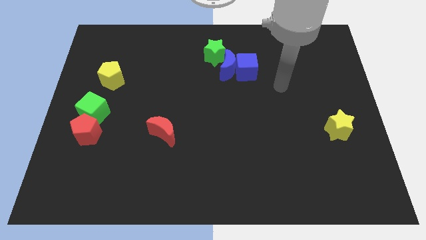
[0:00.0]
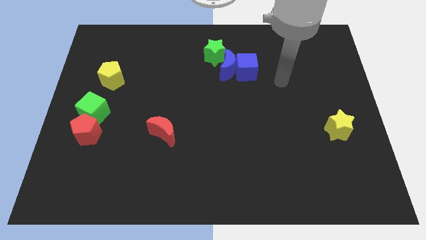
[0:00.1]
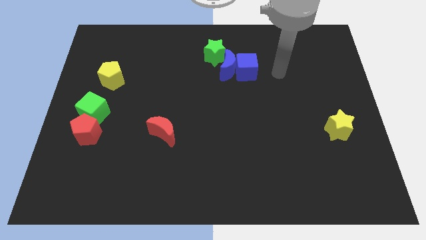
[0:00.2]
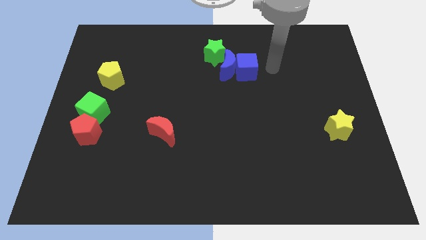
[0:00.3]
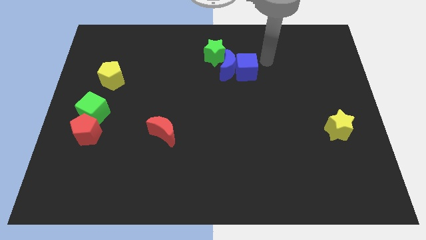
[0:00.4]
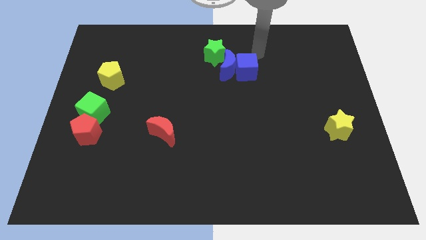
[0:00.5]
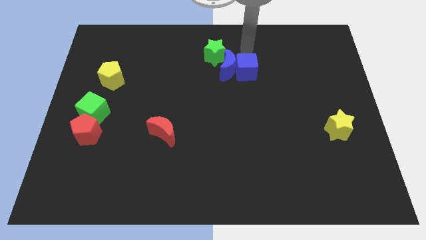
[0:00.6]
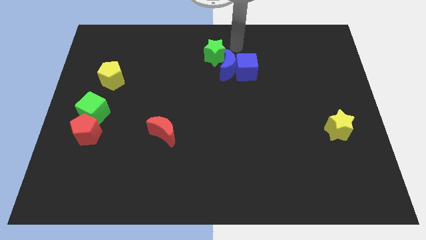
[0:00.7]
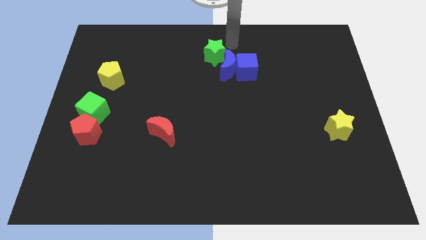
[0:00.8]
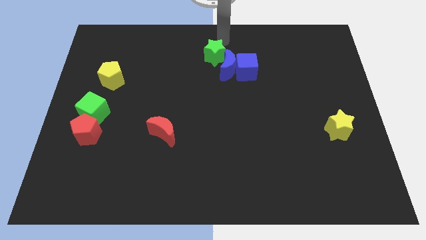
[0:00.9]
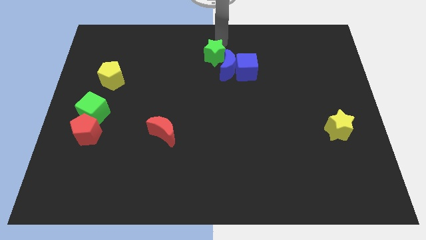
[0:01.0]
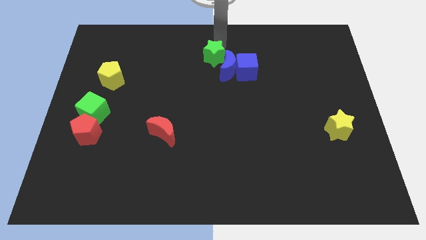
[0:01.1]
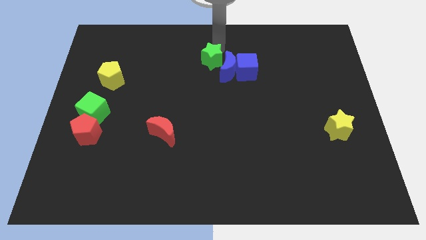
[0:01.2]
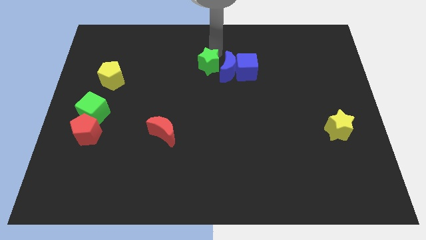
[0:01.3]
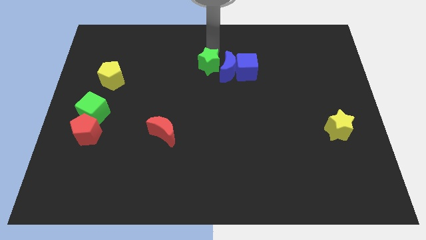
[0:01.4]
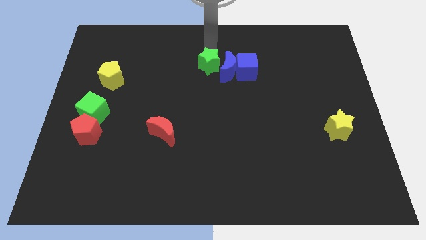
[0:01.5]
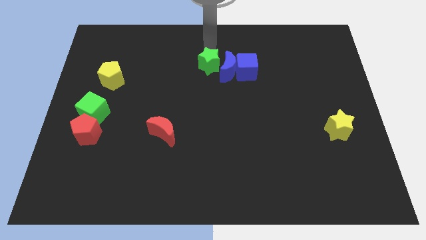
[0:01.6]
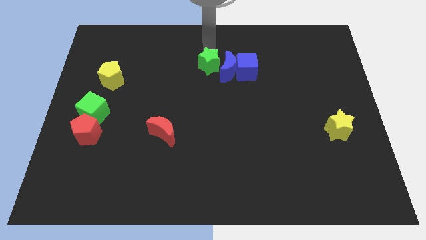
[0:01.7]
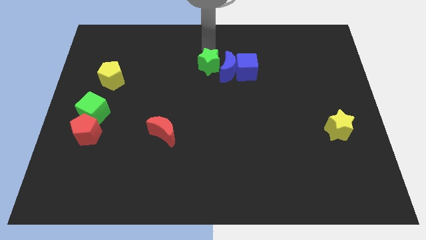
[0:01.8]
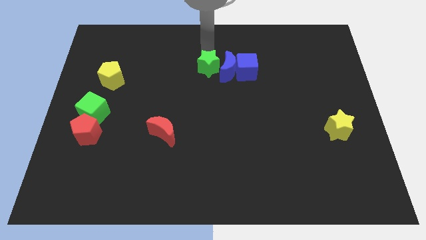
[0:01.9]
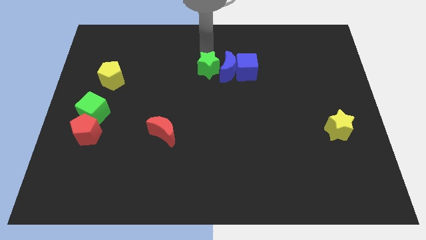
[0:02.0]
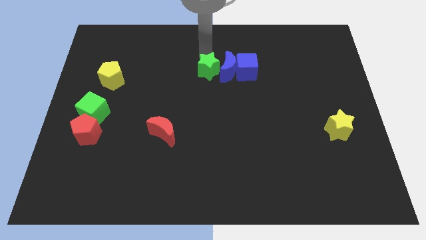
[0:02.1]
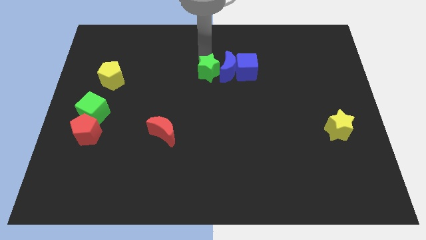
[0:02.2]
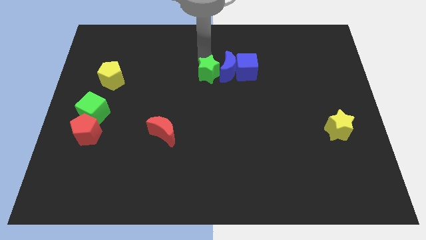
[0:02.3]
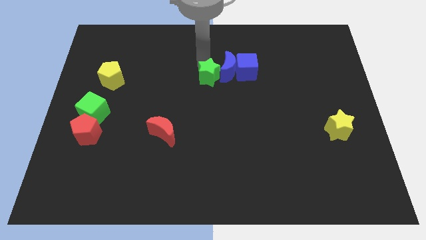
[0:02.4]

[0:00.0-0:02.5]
move the green star slightly down

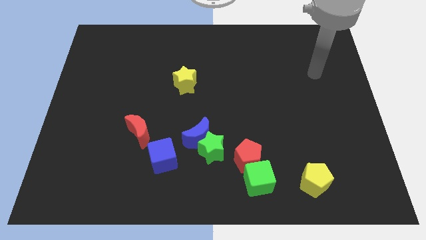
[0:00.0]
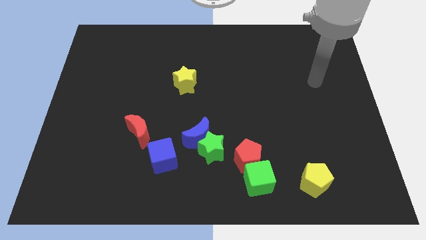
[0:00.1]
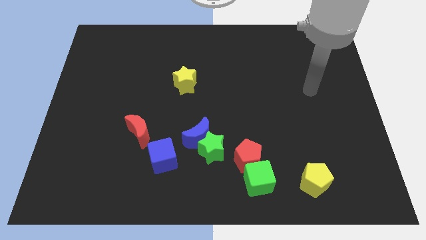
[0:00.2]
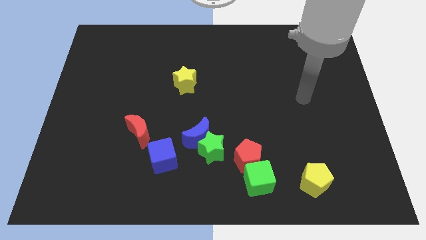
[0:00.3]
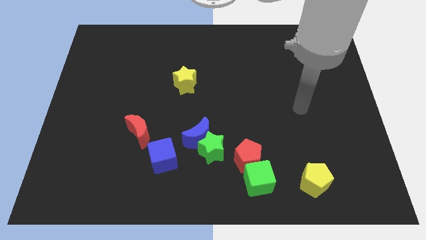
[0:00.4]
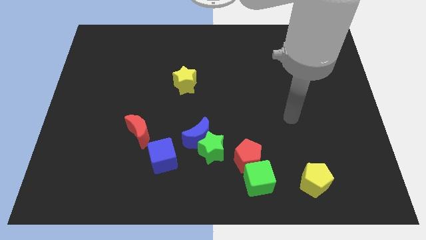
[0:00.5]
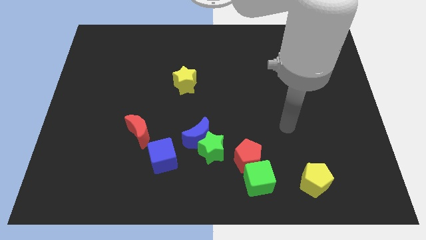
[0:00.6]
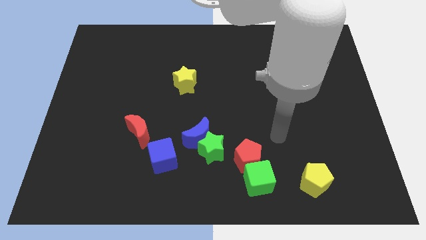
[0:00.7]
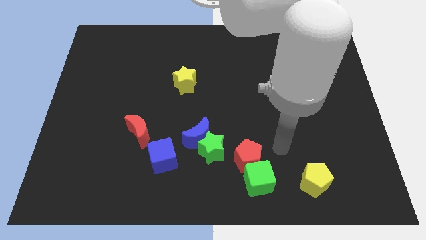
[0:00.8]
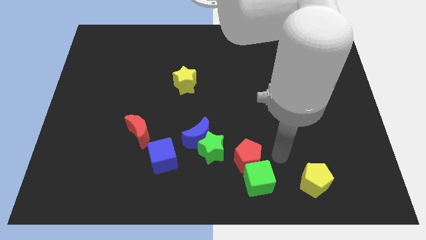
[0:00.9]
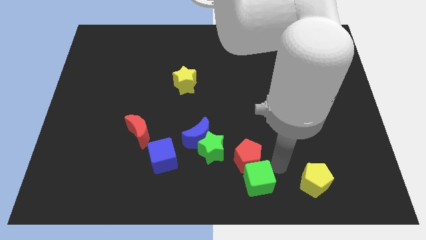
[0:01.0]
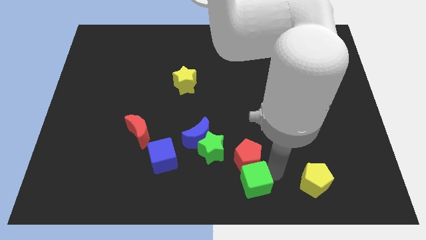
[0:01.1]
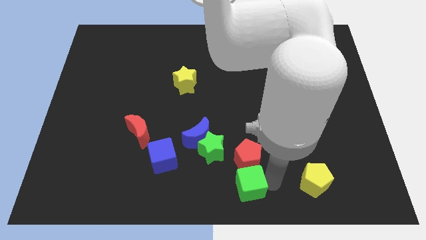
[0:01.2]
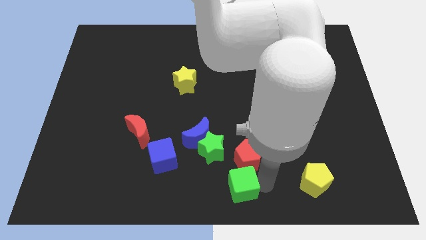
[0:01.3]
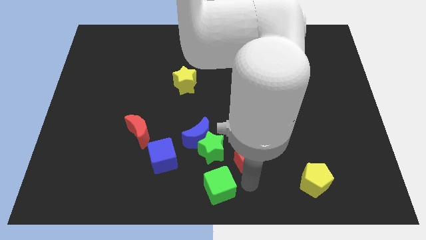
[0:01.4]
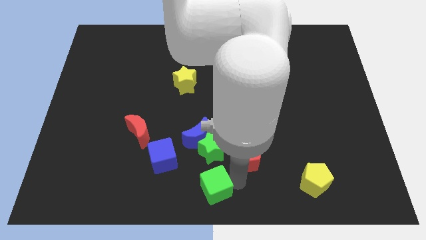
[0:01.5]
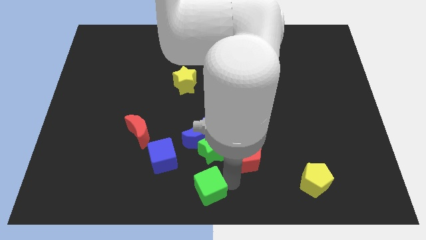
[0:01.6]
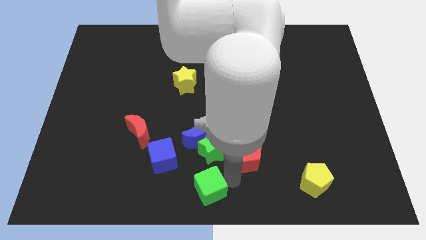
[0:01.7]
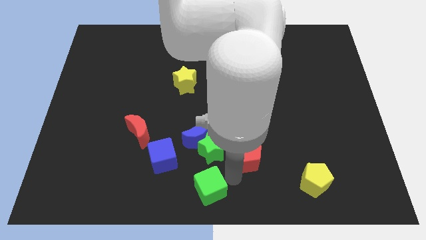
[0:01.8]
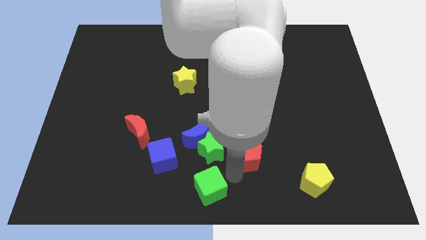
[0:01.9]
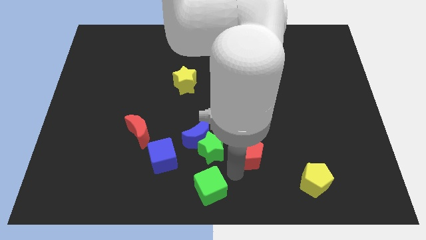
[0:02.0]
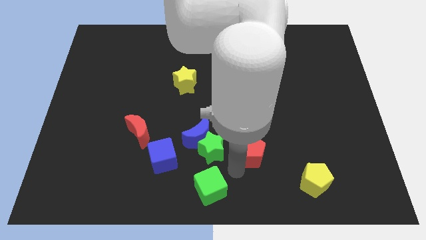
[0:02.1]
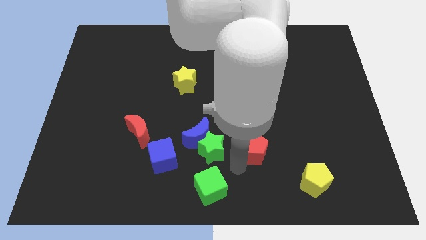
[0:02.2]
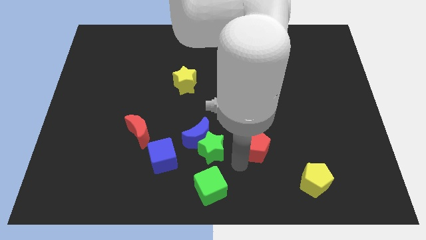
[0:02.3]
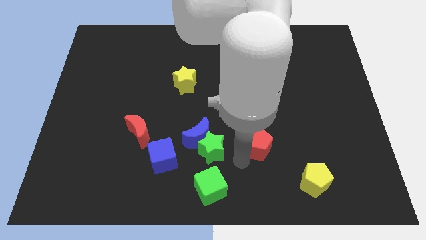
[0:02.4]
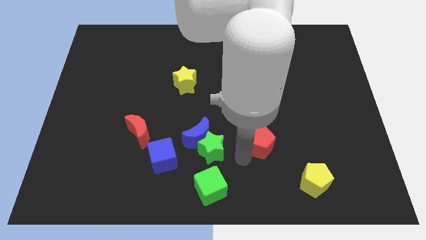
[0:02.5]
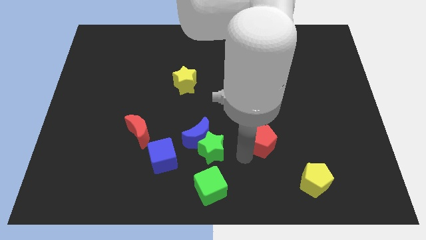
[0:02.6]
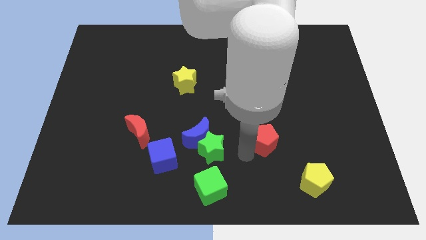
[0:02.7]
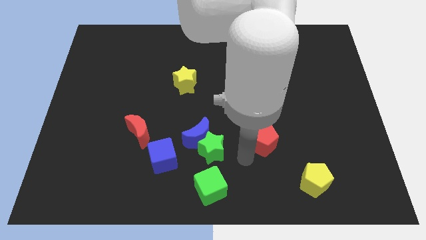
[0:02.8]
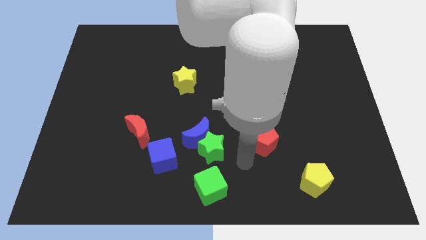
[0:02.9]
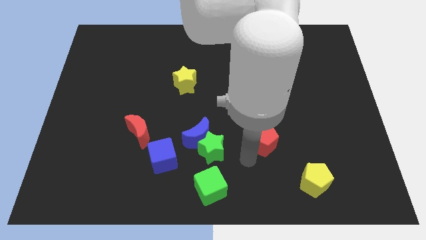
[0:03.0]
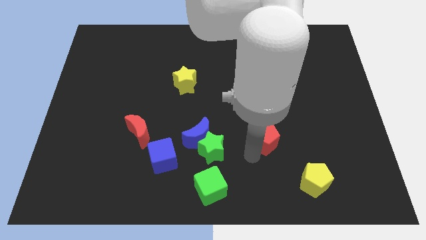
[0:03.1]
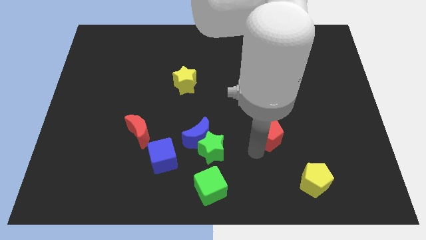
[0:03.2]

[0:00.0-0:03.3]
move the red pentagon a little upwards and then to the right

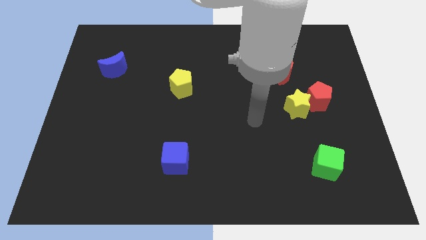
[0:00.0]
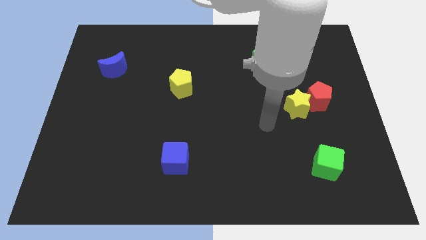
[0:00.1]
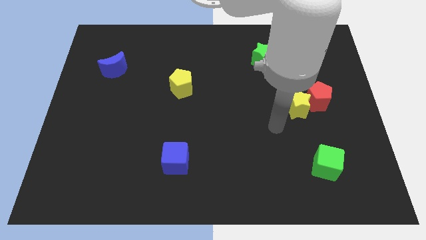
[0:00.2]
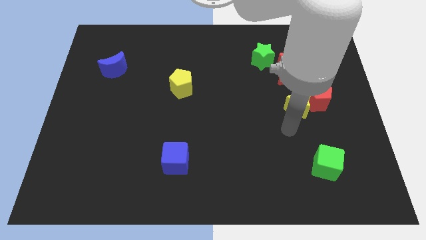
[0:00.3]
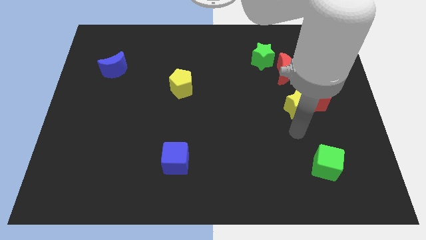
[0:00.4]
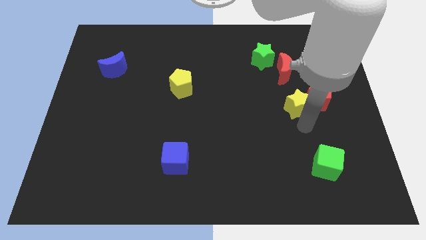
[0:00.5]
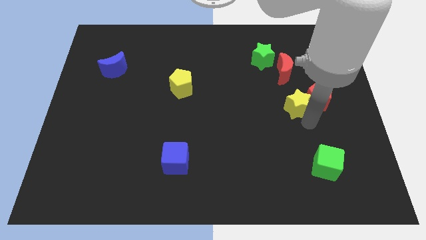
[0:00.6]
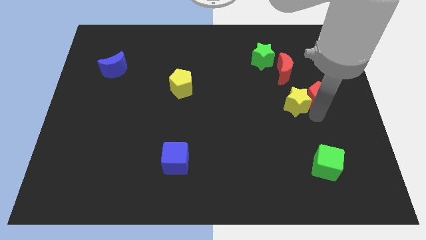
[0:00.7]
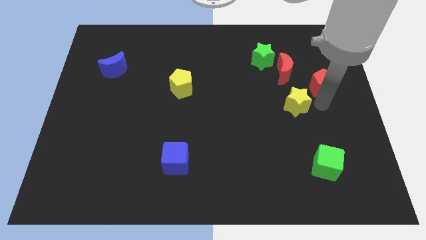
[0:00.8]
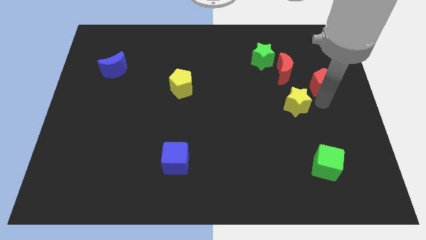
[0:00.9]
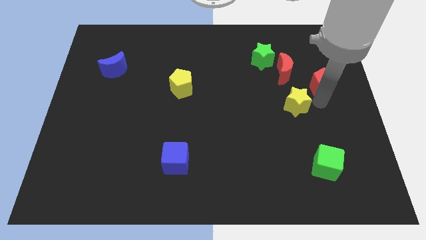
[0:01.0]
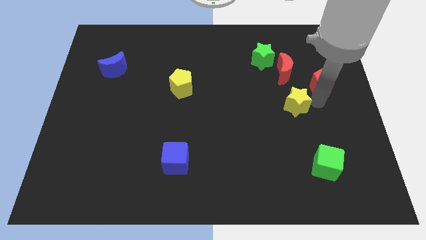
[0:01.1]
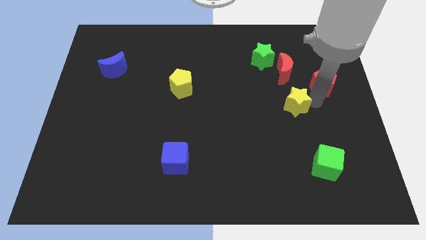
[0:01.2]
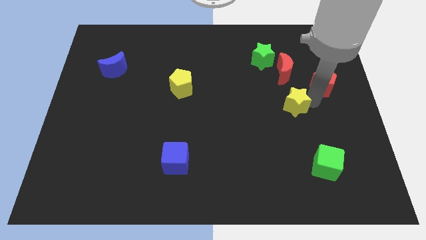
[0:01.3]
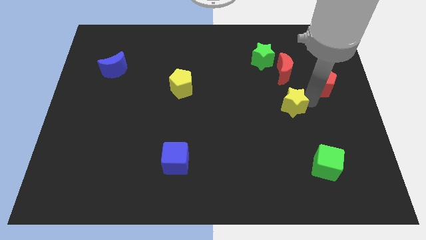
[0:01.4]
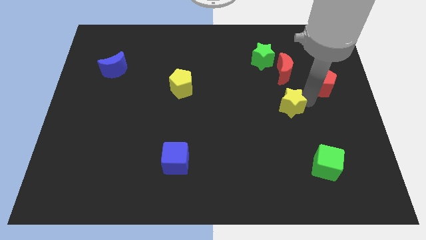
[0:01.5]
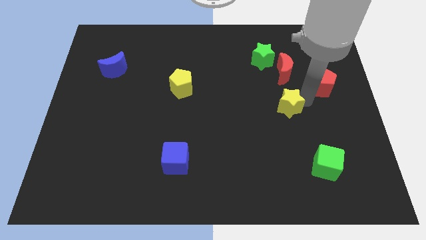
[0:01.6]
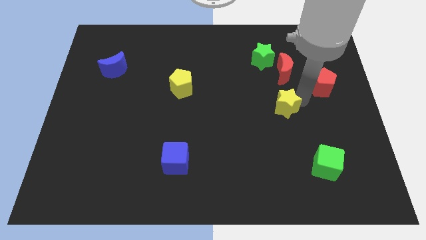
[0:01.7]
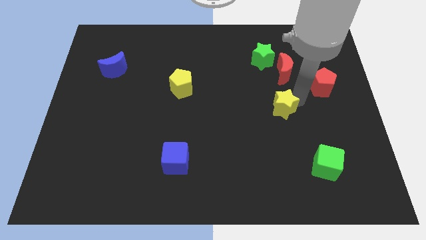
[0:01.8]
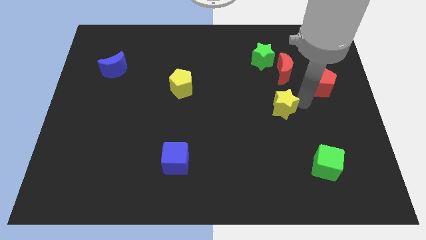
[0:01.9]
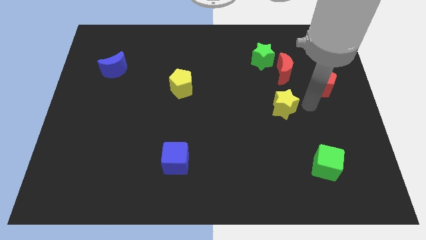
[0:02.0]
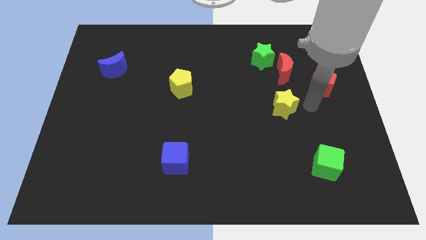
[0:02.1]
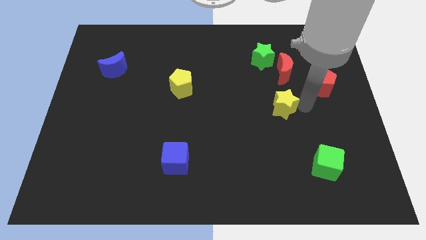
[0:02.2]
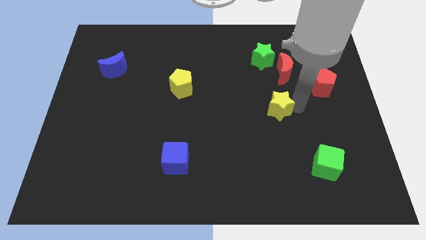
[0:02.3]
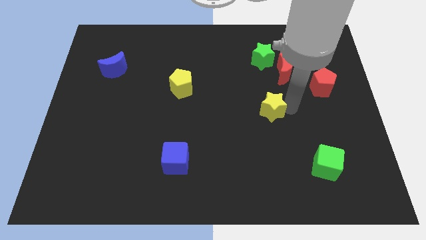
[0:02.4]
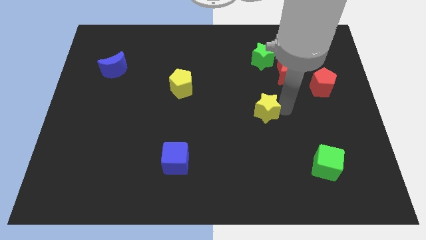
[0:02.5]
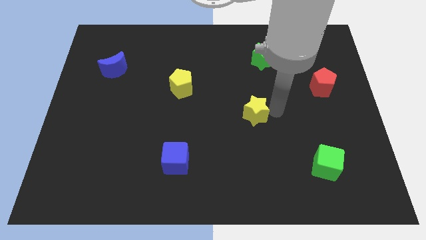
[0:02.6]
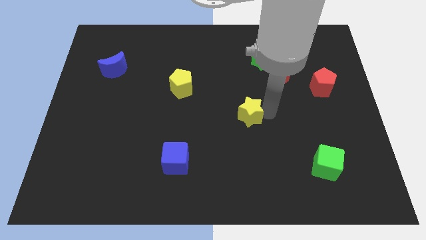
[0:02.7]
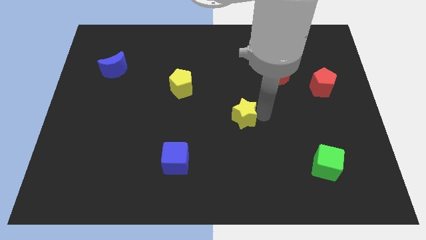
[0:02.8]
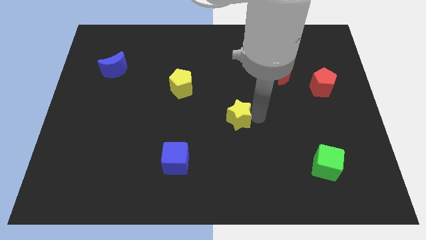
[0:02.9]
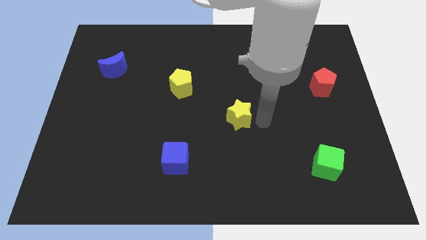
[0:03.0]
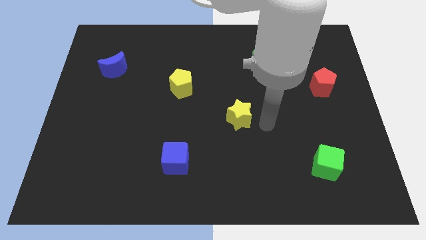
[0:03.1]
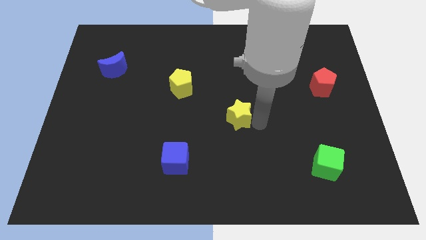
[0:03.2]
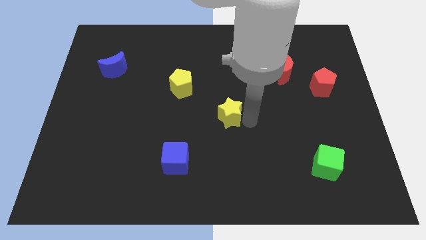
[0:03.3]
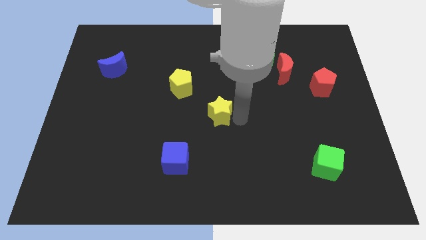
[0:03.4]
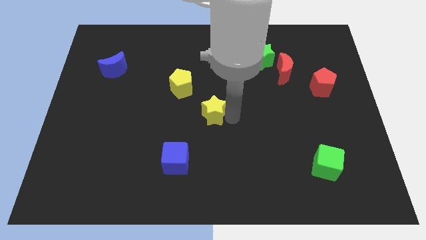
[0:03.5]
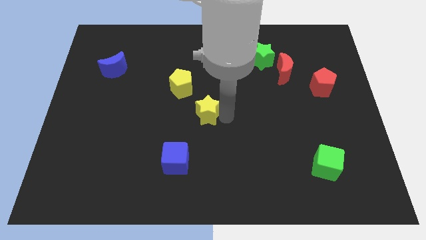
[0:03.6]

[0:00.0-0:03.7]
move the yellow star left
